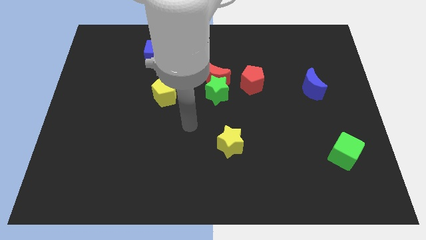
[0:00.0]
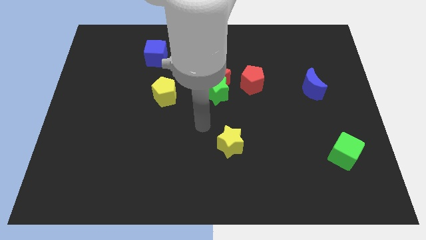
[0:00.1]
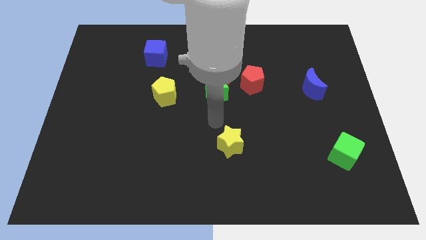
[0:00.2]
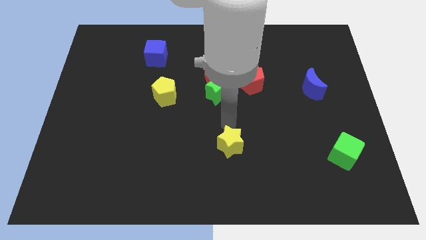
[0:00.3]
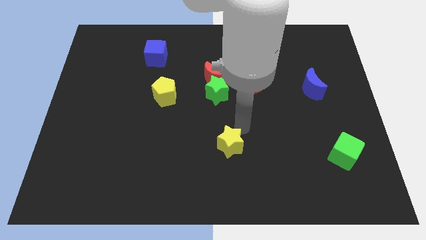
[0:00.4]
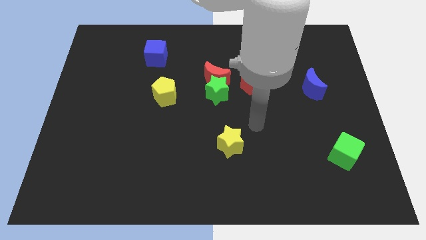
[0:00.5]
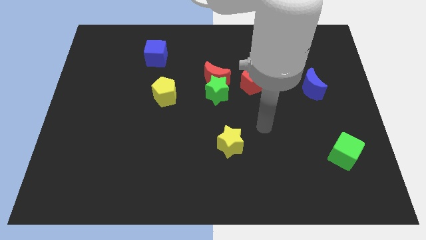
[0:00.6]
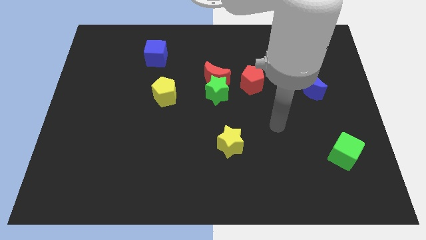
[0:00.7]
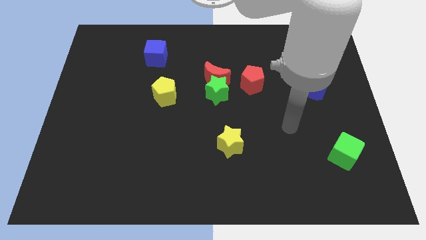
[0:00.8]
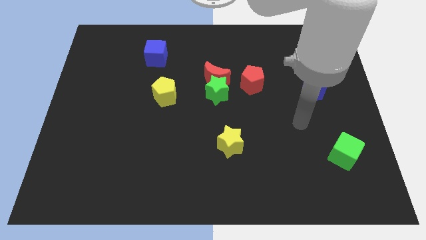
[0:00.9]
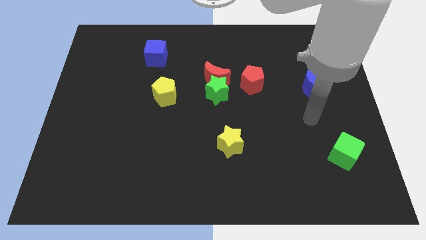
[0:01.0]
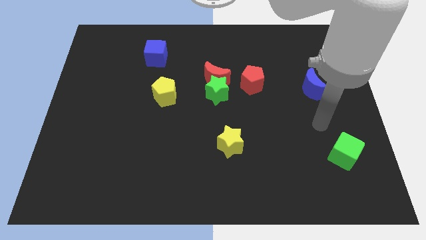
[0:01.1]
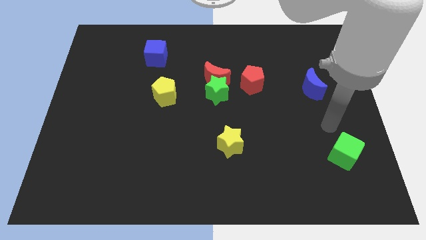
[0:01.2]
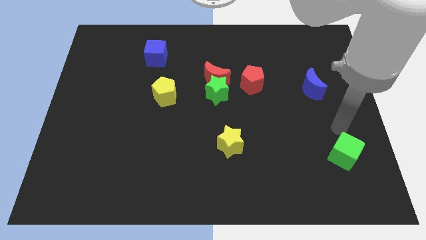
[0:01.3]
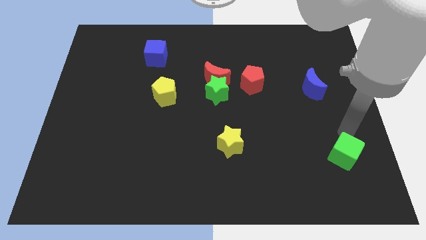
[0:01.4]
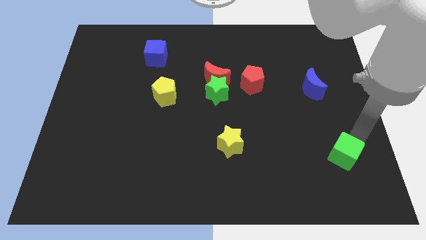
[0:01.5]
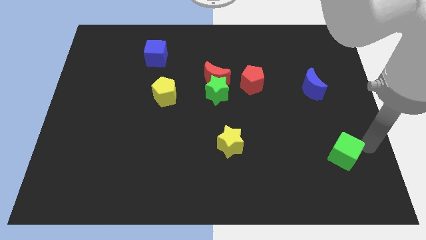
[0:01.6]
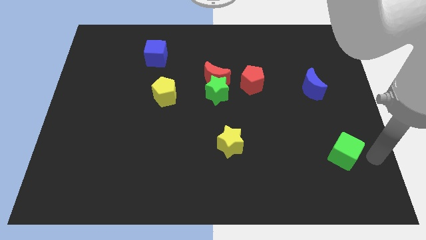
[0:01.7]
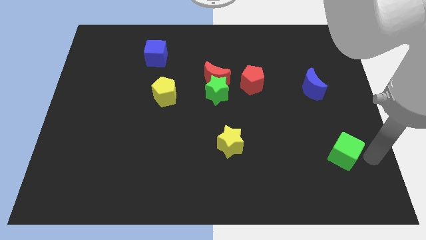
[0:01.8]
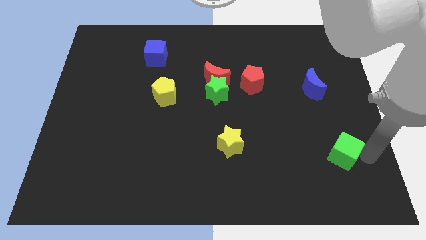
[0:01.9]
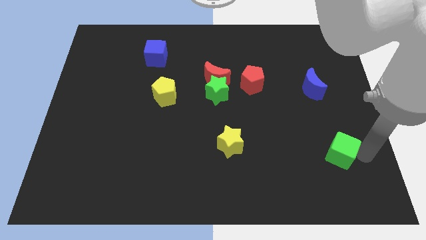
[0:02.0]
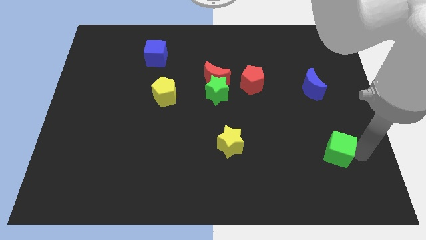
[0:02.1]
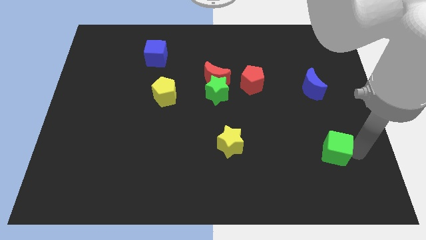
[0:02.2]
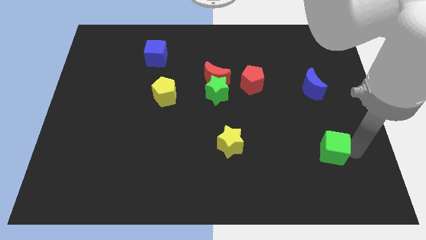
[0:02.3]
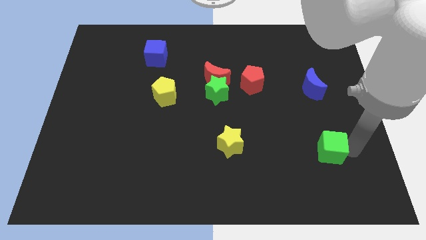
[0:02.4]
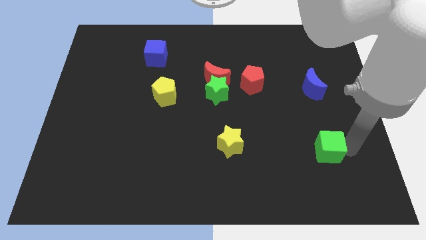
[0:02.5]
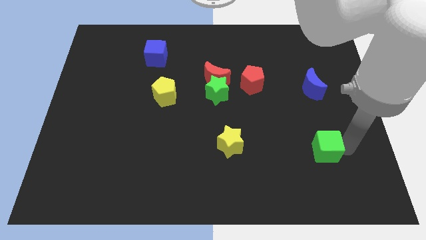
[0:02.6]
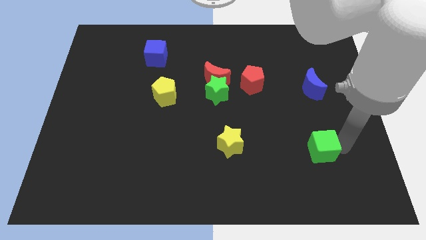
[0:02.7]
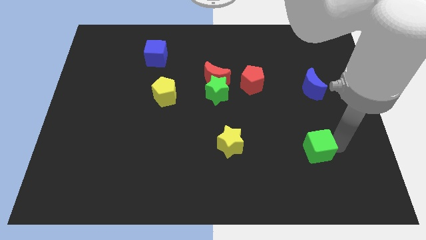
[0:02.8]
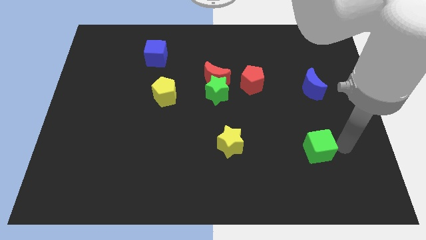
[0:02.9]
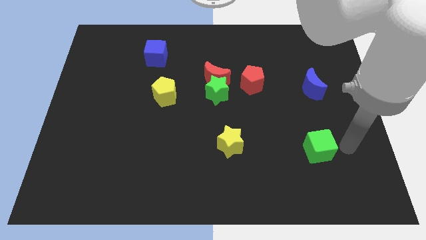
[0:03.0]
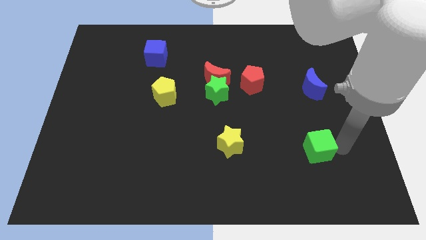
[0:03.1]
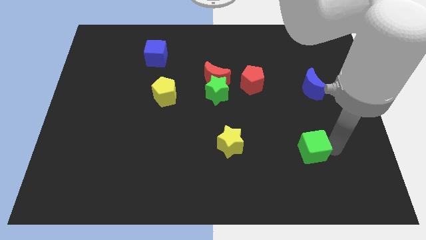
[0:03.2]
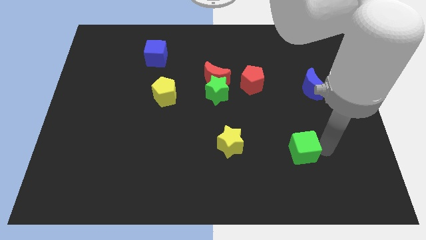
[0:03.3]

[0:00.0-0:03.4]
slightly push the green cube left

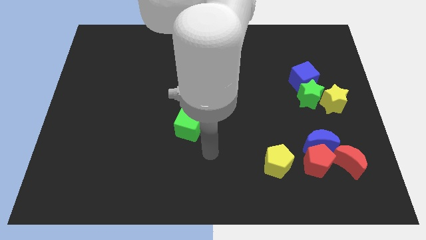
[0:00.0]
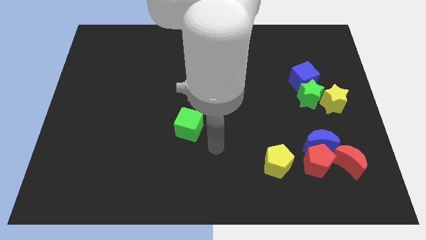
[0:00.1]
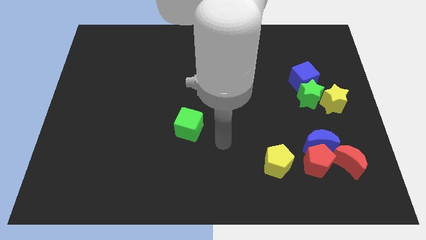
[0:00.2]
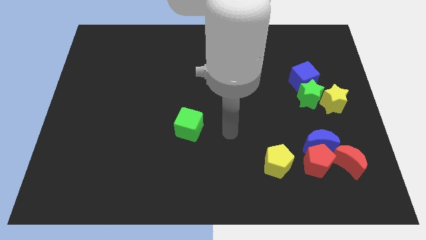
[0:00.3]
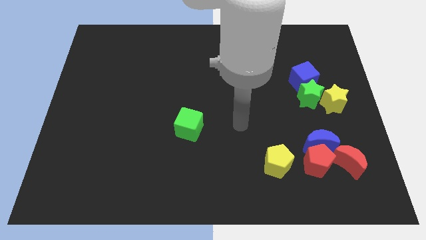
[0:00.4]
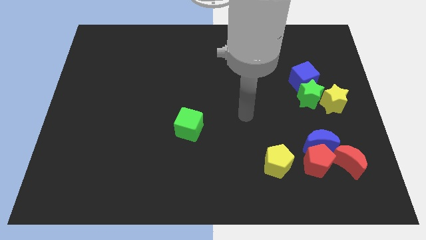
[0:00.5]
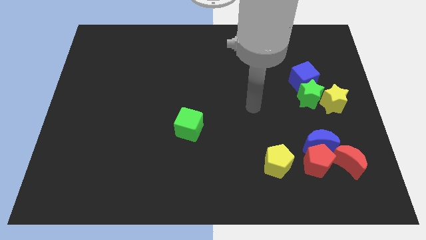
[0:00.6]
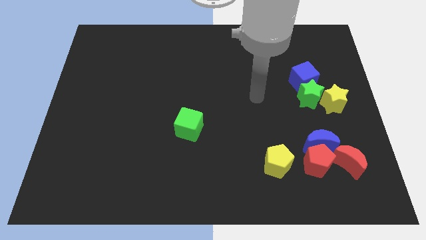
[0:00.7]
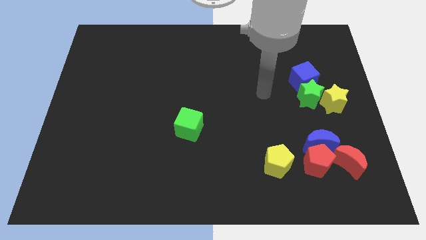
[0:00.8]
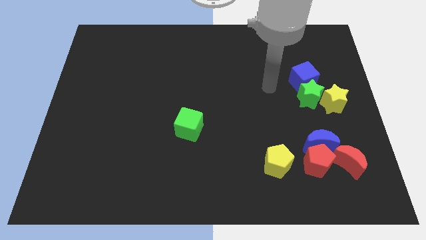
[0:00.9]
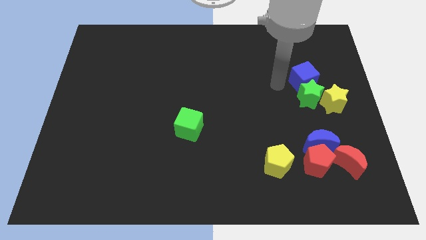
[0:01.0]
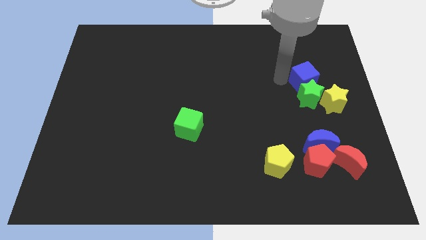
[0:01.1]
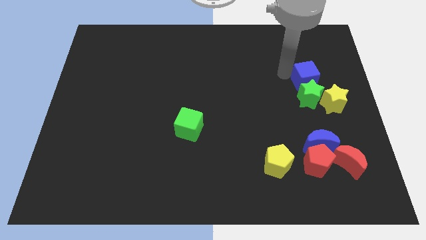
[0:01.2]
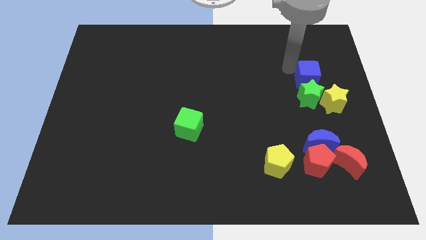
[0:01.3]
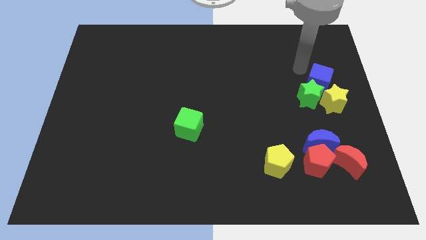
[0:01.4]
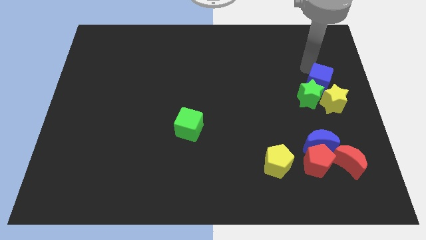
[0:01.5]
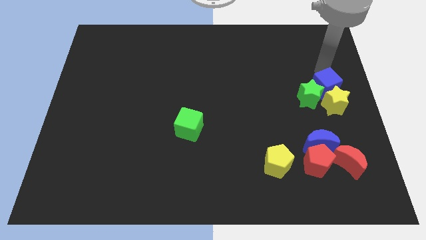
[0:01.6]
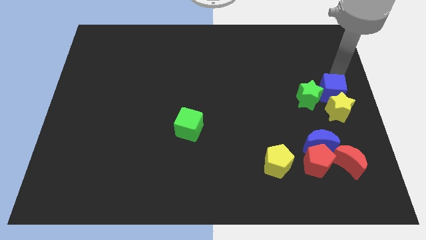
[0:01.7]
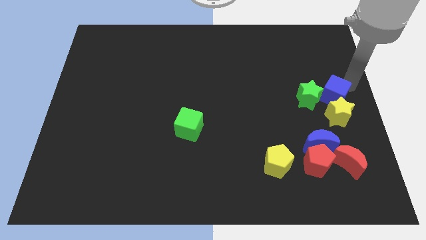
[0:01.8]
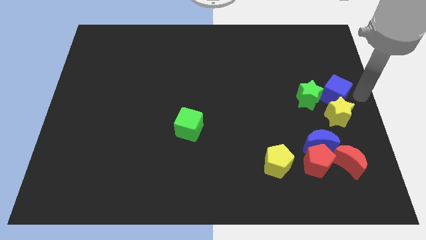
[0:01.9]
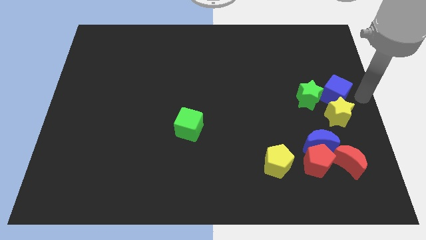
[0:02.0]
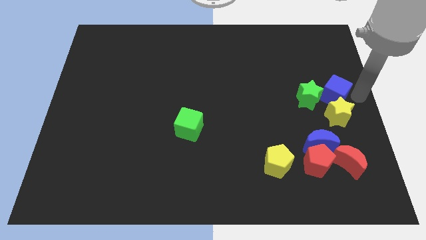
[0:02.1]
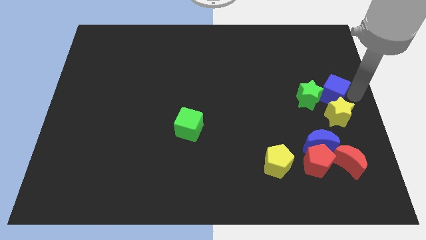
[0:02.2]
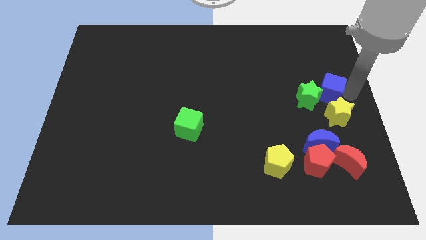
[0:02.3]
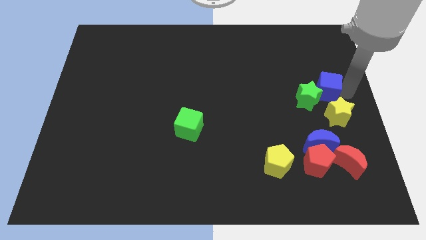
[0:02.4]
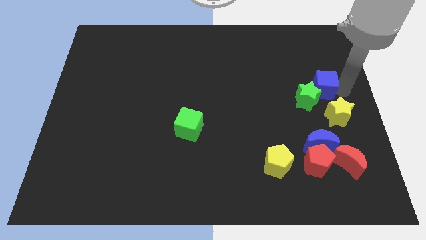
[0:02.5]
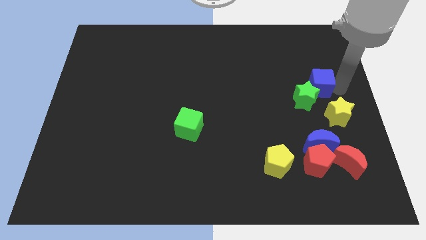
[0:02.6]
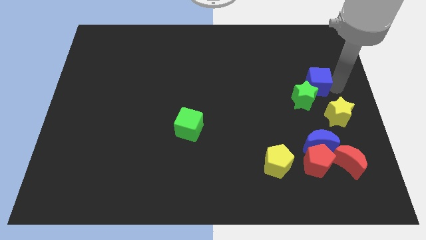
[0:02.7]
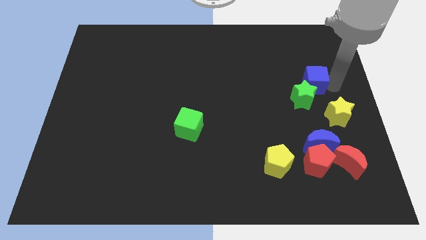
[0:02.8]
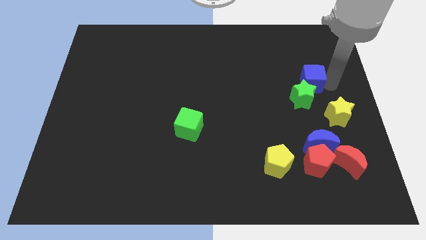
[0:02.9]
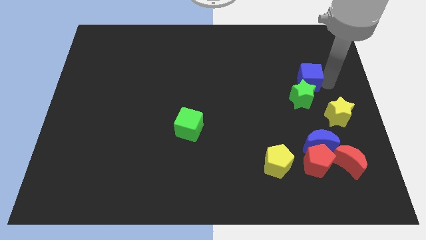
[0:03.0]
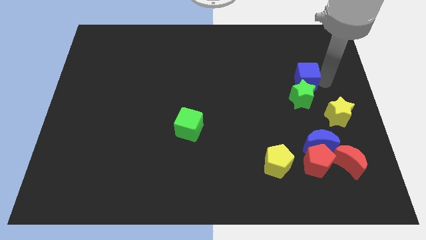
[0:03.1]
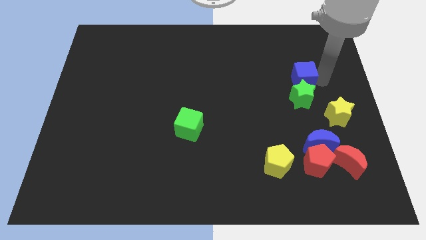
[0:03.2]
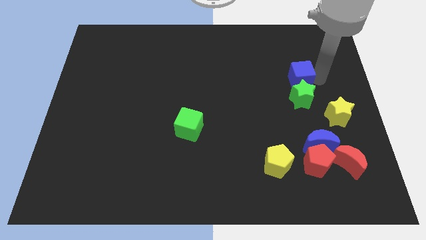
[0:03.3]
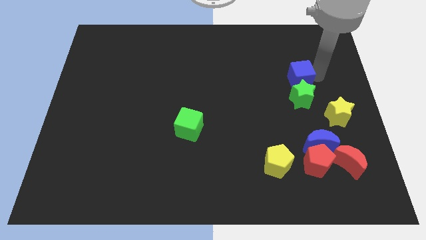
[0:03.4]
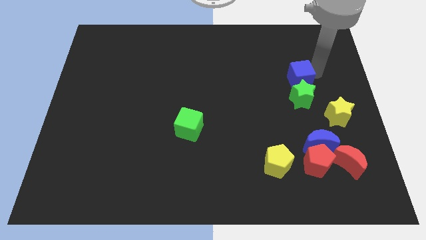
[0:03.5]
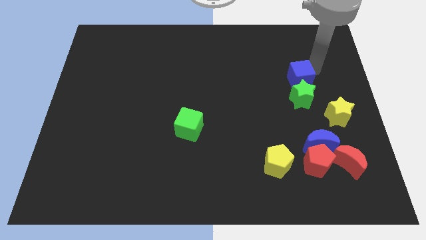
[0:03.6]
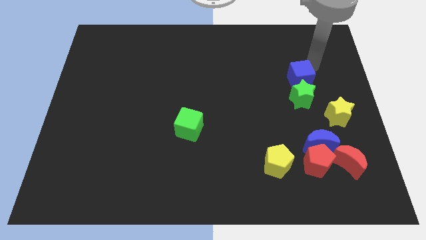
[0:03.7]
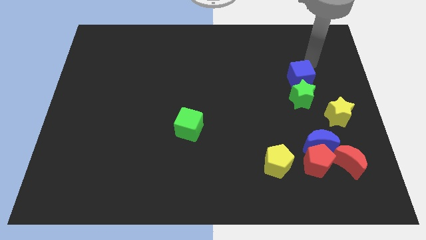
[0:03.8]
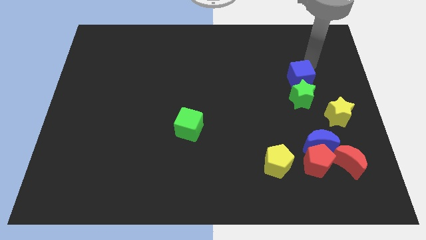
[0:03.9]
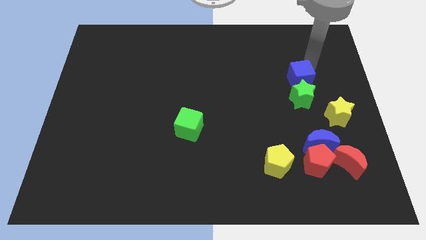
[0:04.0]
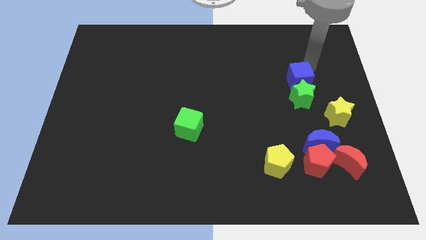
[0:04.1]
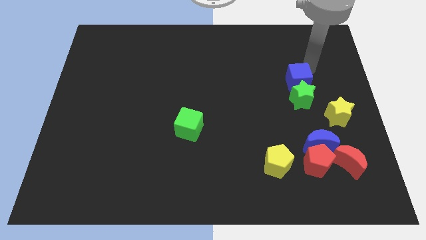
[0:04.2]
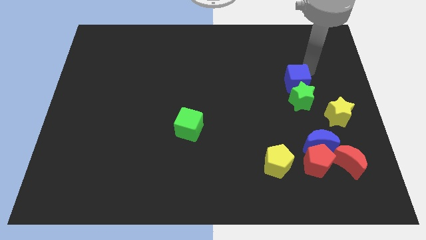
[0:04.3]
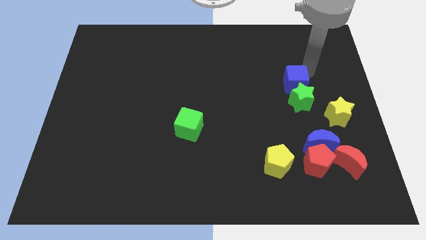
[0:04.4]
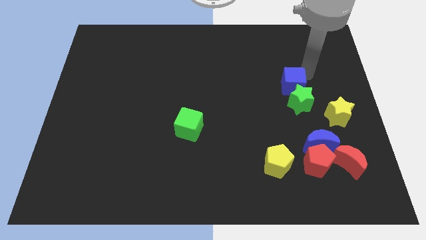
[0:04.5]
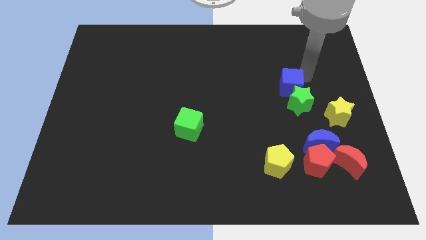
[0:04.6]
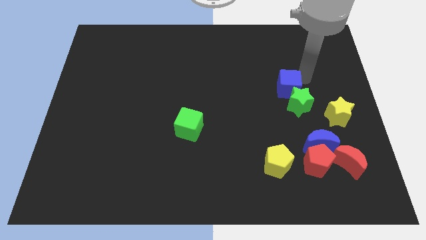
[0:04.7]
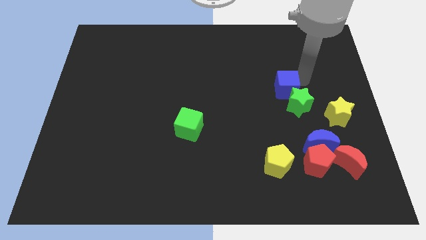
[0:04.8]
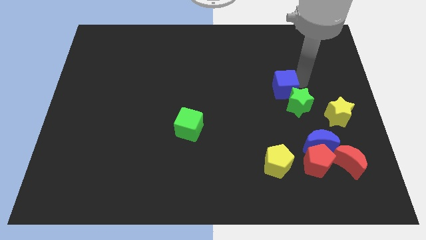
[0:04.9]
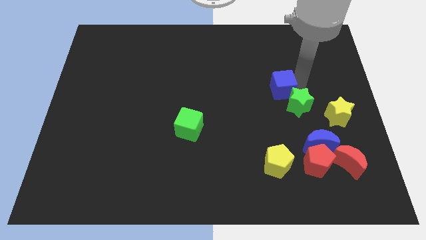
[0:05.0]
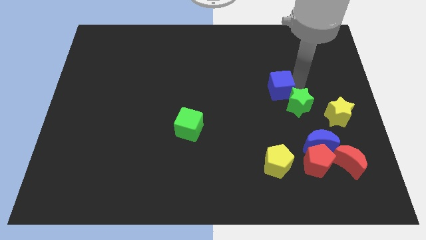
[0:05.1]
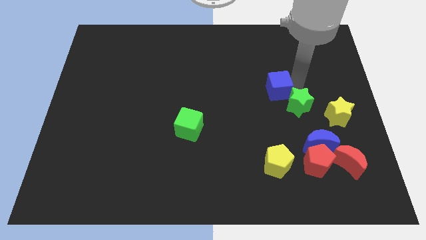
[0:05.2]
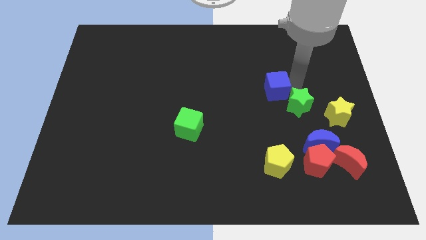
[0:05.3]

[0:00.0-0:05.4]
slightly push the blue cube downwards and then left
